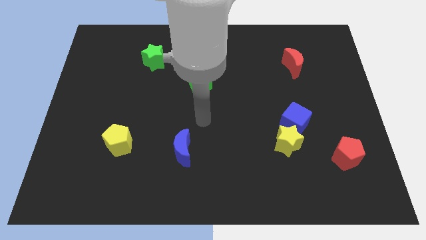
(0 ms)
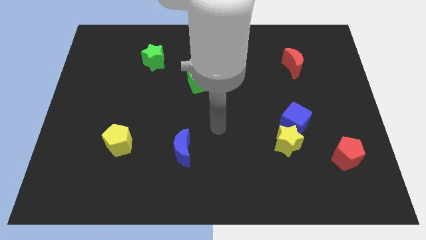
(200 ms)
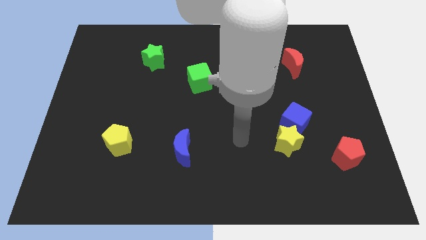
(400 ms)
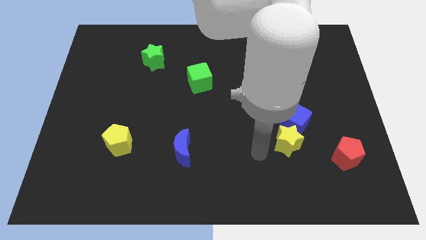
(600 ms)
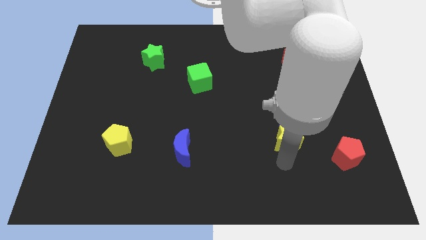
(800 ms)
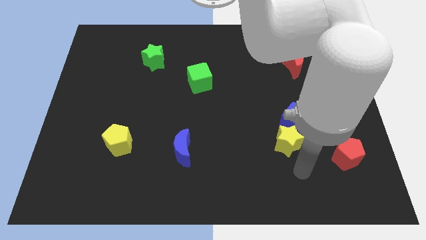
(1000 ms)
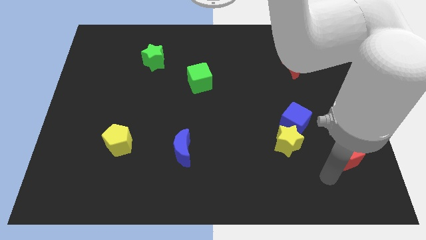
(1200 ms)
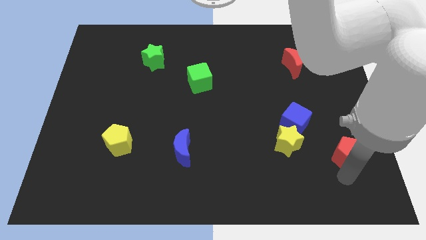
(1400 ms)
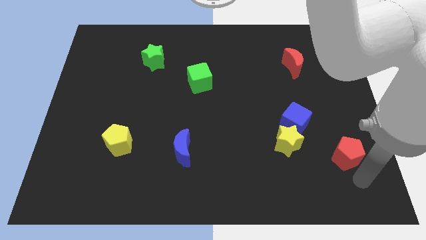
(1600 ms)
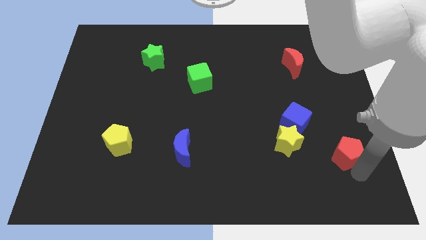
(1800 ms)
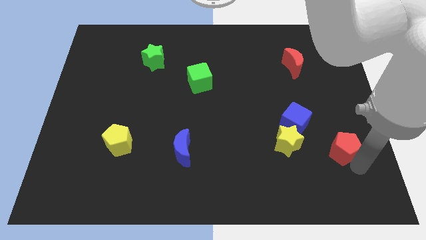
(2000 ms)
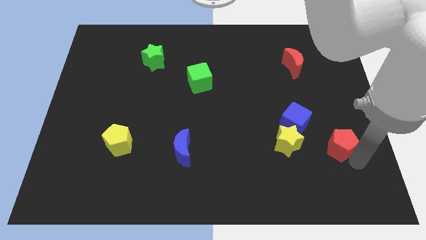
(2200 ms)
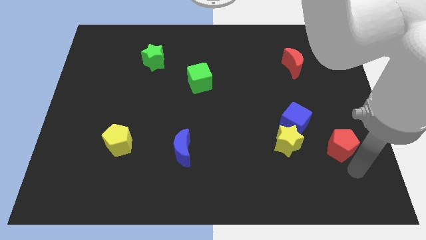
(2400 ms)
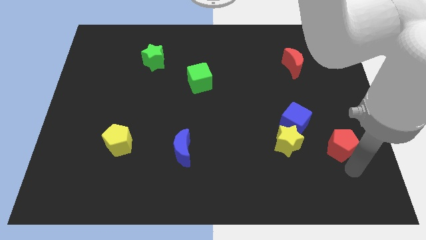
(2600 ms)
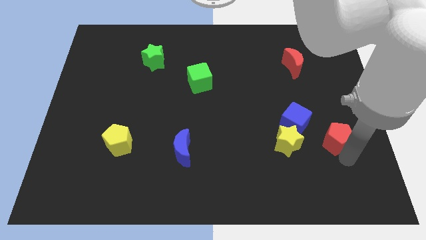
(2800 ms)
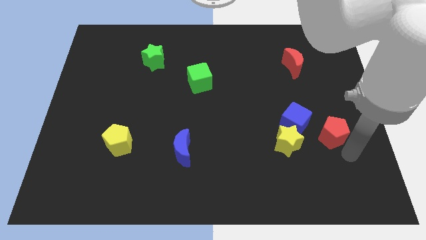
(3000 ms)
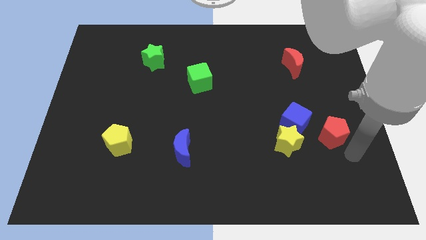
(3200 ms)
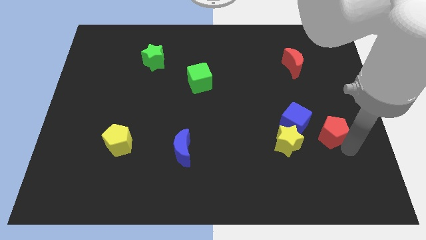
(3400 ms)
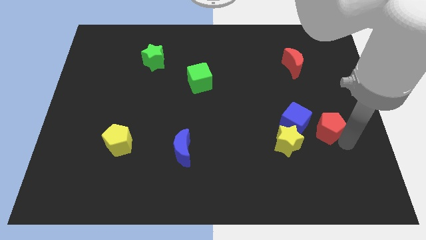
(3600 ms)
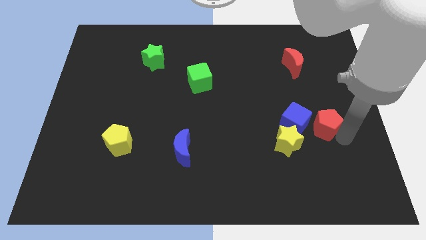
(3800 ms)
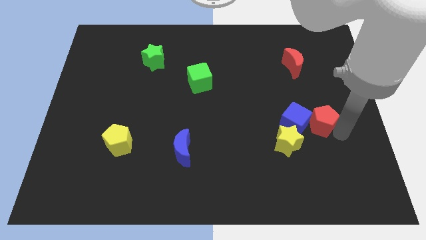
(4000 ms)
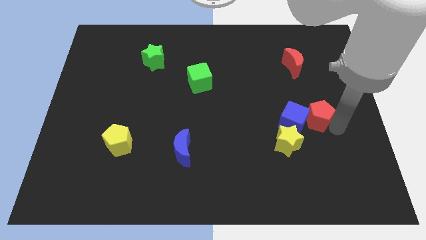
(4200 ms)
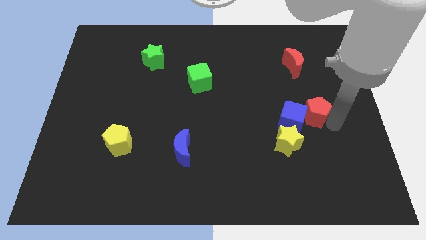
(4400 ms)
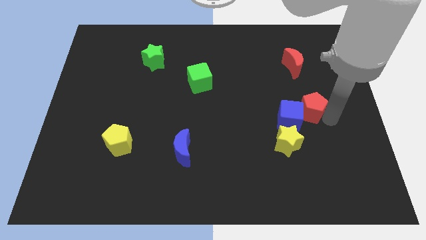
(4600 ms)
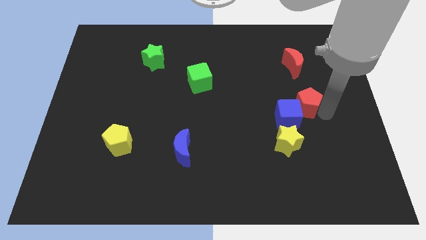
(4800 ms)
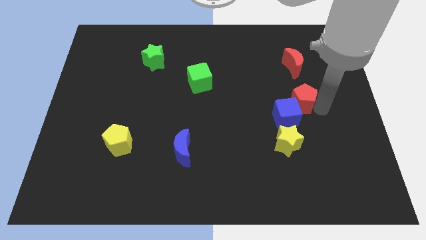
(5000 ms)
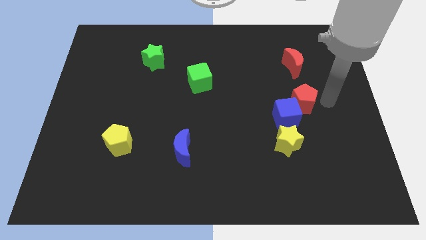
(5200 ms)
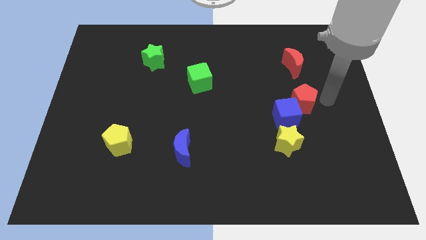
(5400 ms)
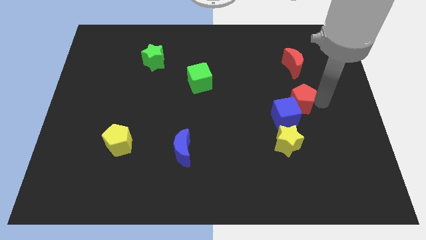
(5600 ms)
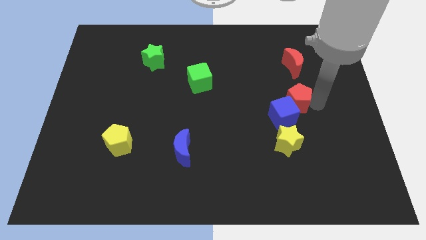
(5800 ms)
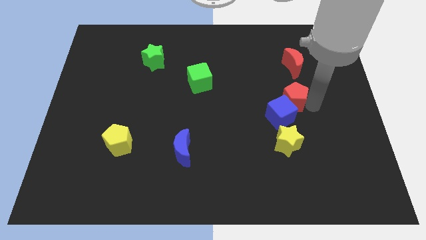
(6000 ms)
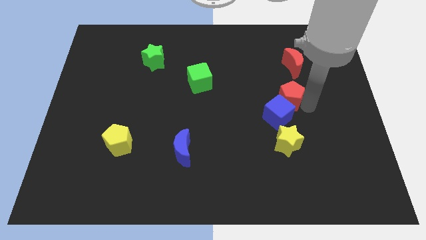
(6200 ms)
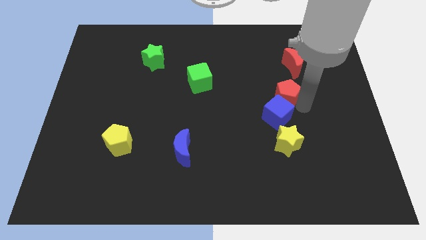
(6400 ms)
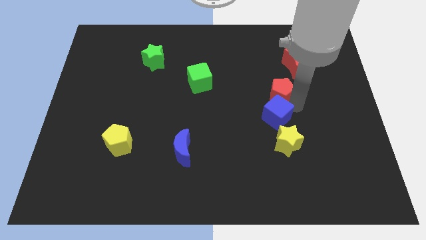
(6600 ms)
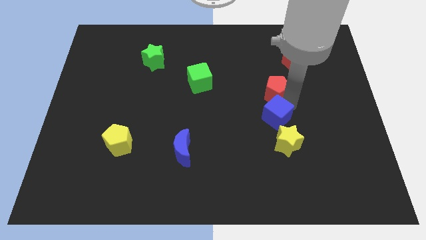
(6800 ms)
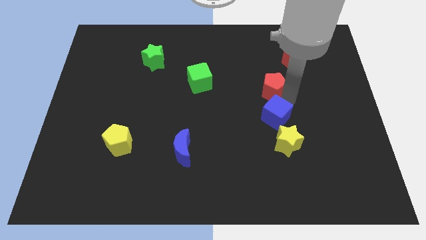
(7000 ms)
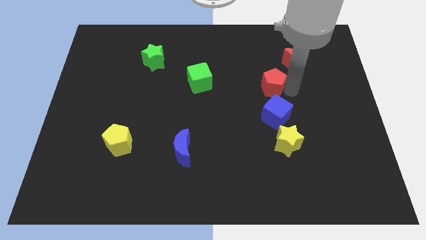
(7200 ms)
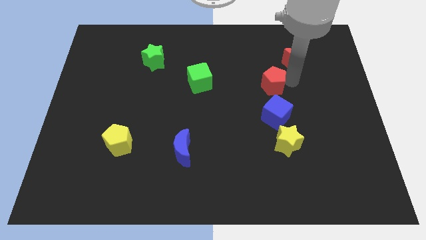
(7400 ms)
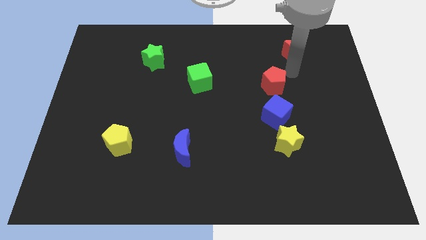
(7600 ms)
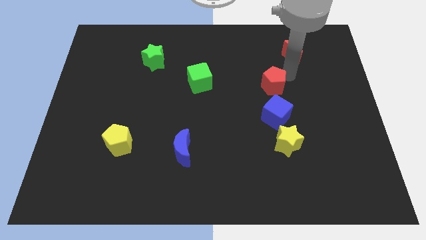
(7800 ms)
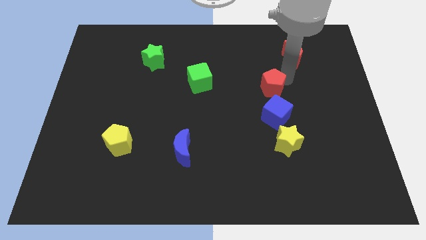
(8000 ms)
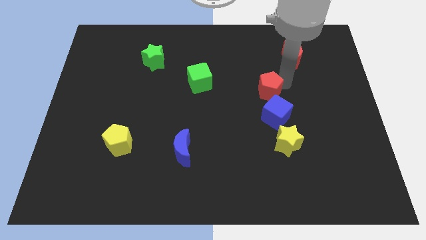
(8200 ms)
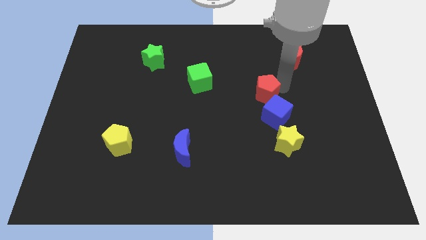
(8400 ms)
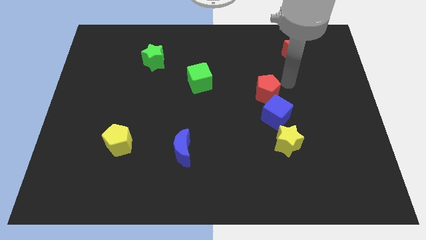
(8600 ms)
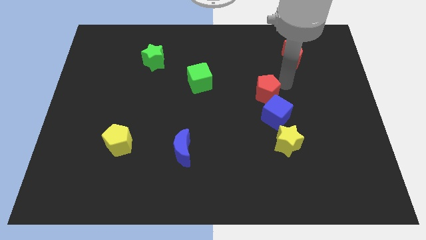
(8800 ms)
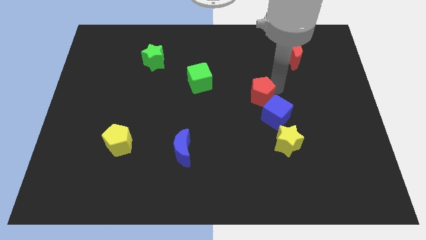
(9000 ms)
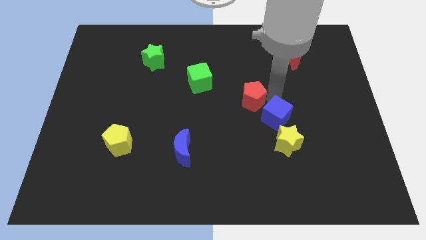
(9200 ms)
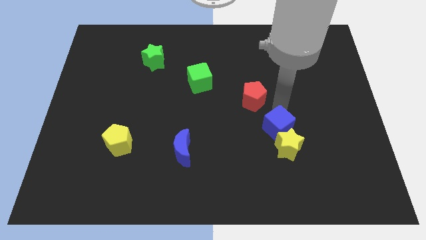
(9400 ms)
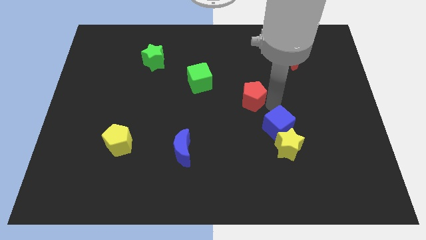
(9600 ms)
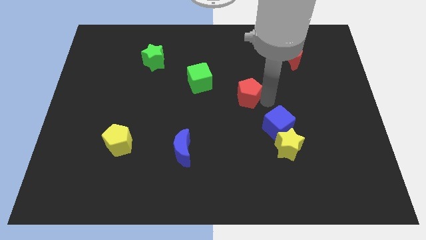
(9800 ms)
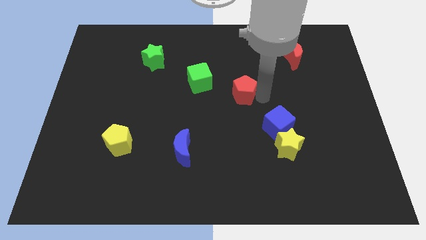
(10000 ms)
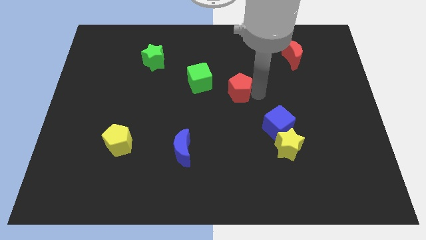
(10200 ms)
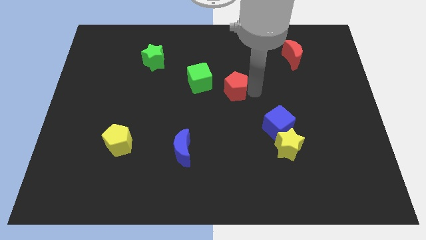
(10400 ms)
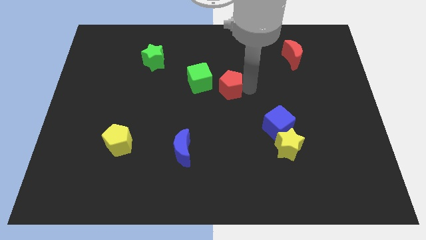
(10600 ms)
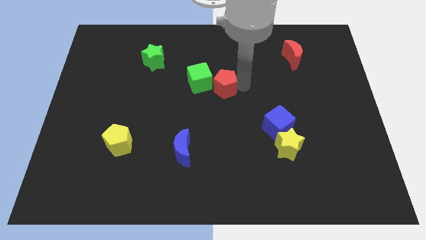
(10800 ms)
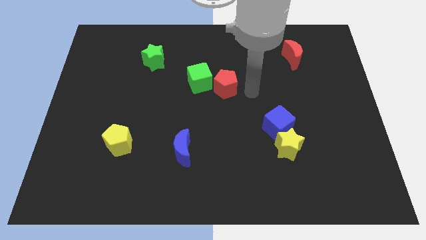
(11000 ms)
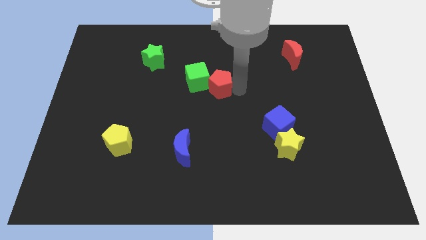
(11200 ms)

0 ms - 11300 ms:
push the red pentagon next to the green cube

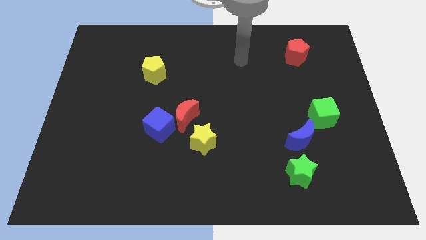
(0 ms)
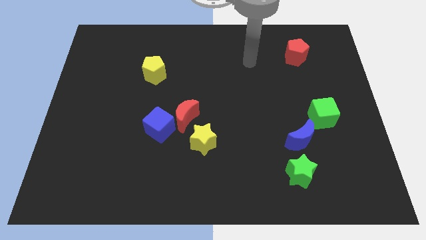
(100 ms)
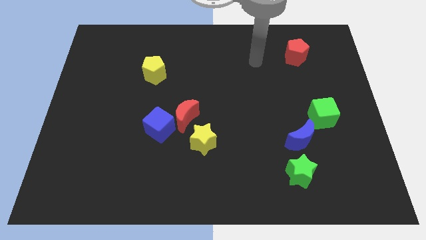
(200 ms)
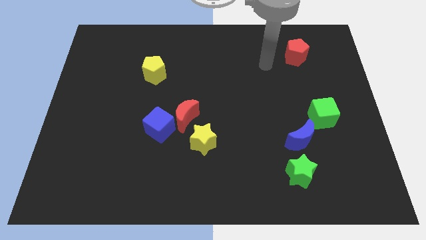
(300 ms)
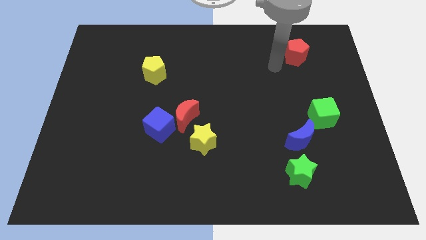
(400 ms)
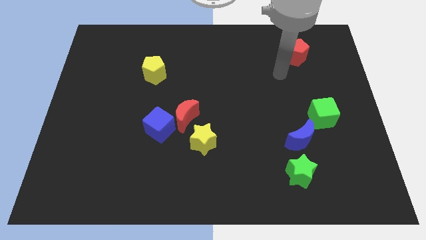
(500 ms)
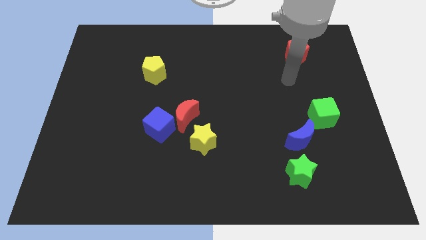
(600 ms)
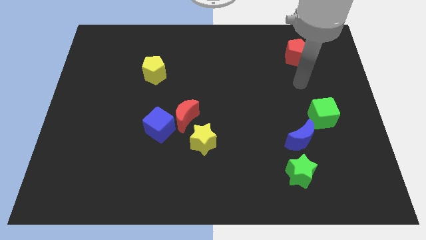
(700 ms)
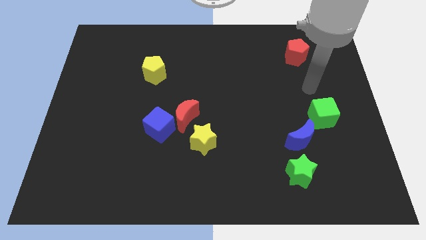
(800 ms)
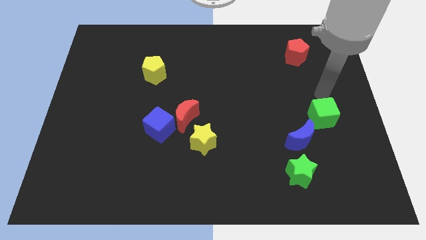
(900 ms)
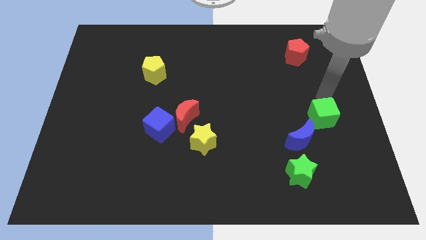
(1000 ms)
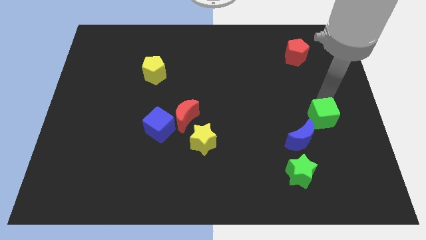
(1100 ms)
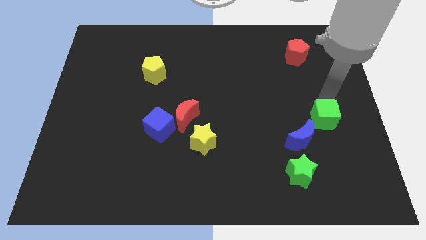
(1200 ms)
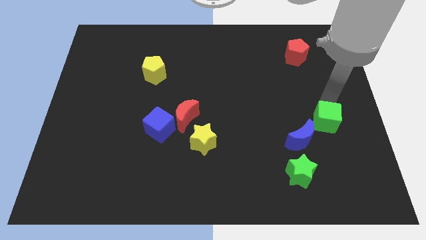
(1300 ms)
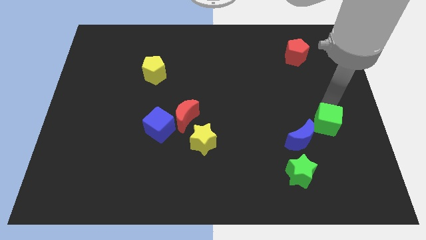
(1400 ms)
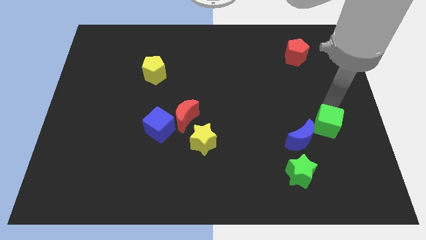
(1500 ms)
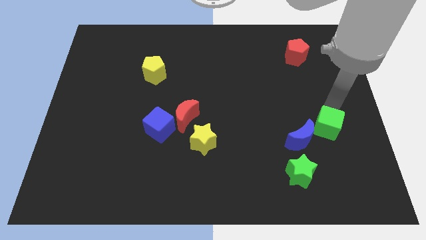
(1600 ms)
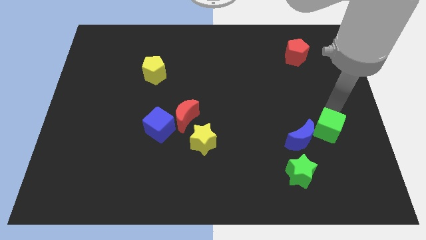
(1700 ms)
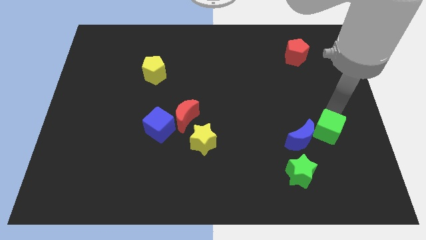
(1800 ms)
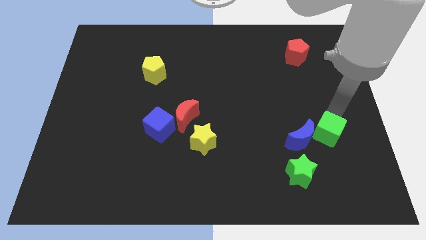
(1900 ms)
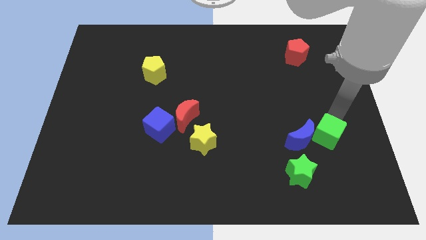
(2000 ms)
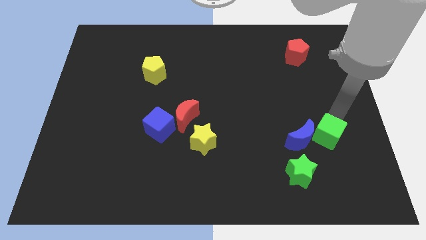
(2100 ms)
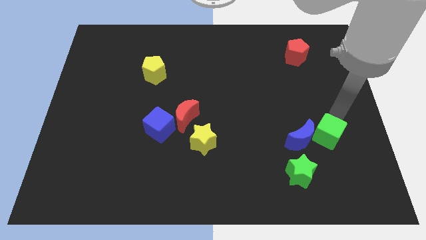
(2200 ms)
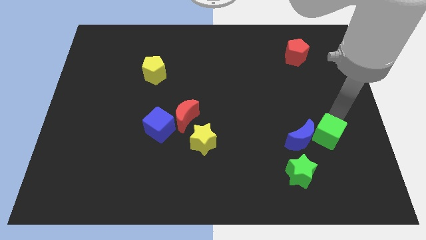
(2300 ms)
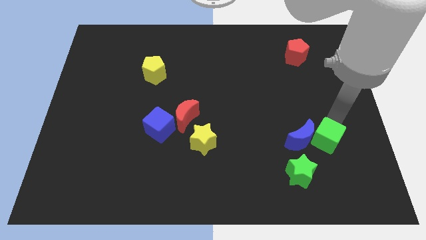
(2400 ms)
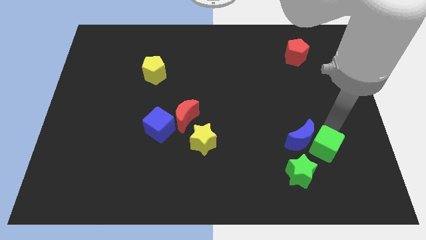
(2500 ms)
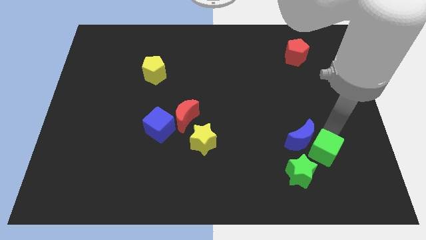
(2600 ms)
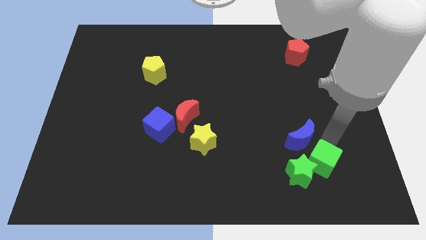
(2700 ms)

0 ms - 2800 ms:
move the green cube to the green star
